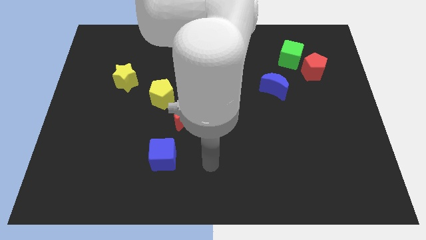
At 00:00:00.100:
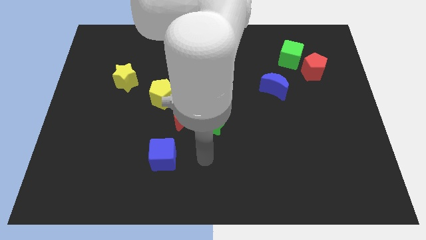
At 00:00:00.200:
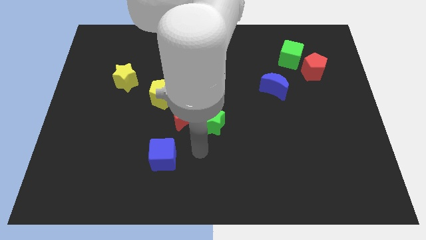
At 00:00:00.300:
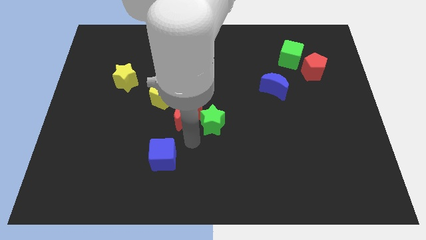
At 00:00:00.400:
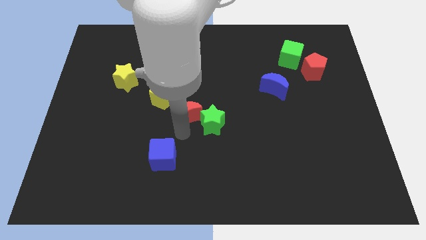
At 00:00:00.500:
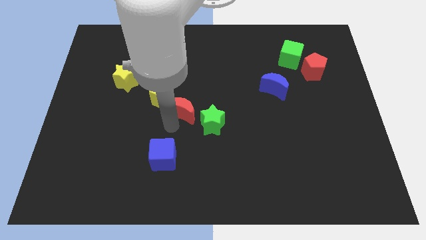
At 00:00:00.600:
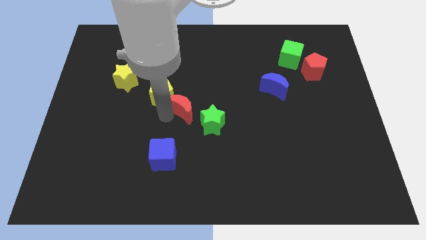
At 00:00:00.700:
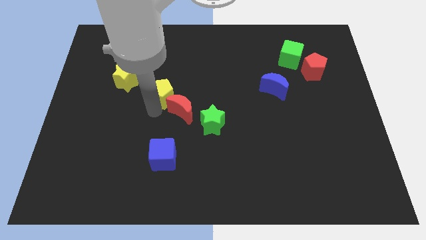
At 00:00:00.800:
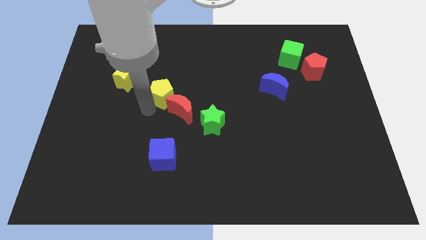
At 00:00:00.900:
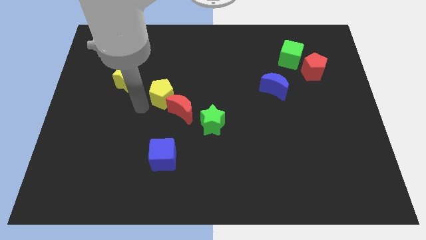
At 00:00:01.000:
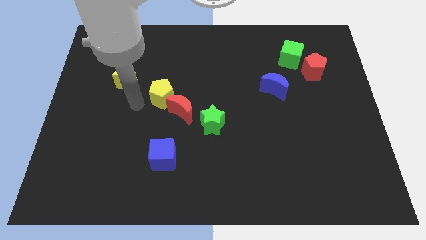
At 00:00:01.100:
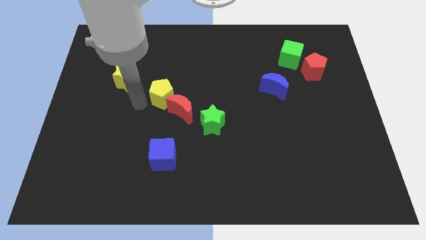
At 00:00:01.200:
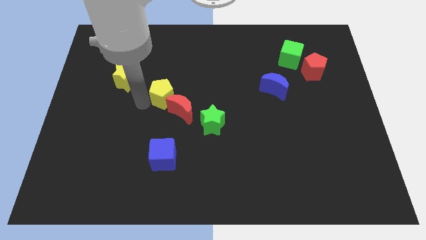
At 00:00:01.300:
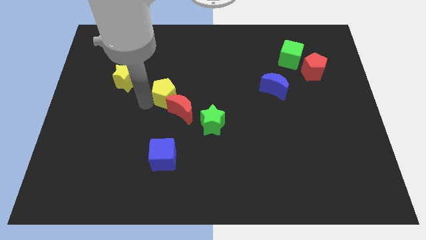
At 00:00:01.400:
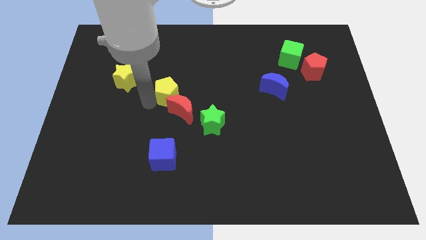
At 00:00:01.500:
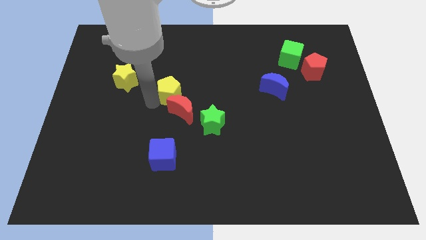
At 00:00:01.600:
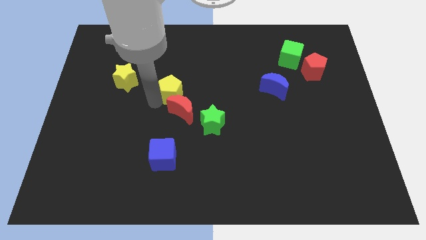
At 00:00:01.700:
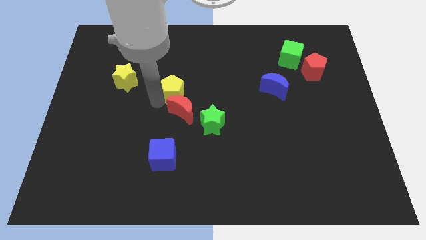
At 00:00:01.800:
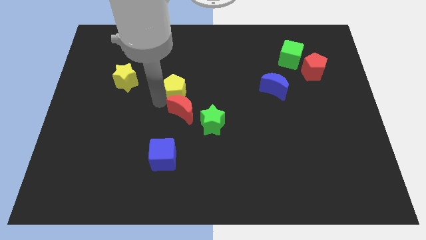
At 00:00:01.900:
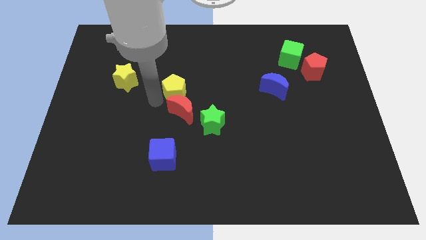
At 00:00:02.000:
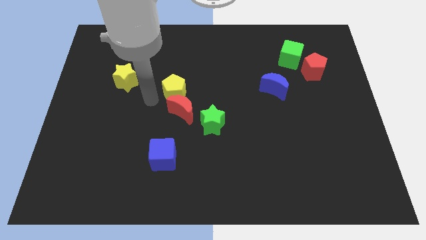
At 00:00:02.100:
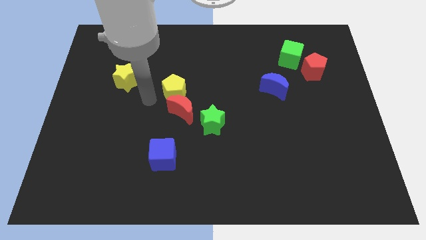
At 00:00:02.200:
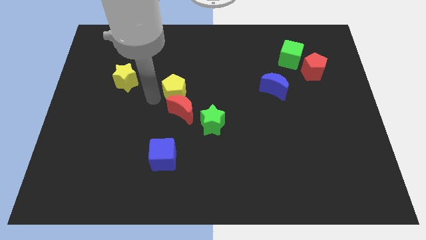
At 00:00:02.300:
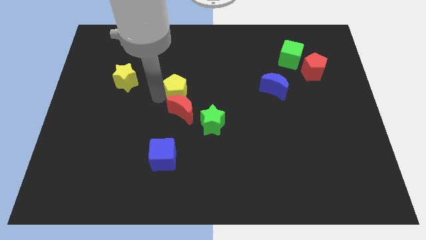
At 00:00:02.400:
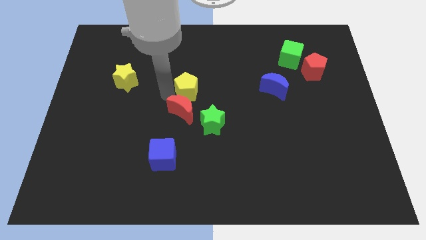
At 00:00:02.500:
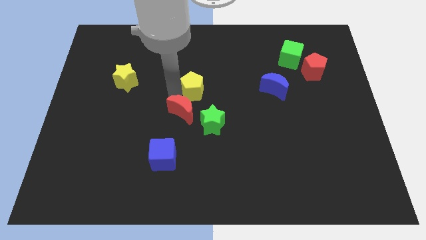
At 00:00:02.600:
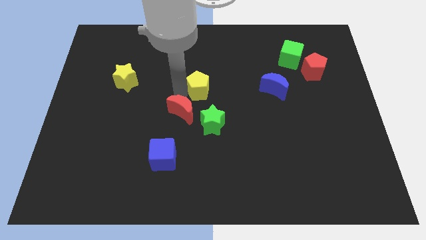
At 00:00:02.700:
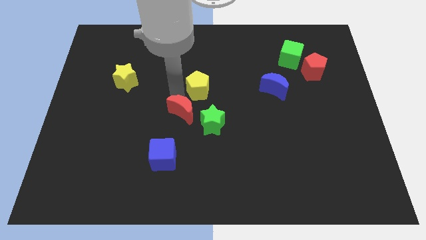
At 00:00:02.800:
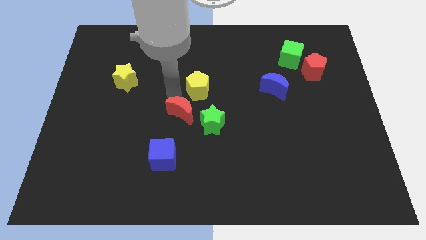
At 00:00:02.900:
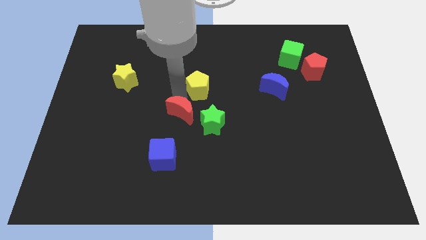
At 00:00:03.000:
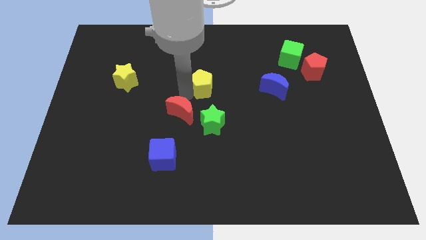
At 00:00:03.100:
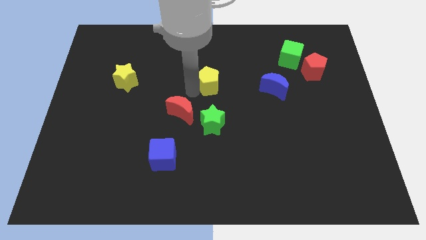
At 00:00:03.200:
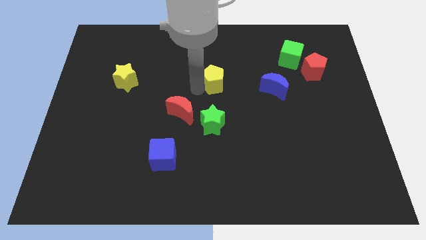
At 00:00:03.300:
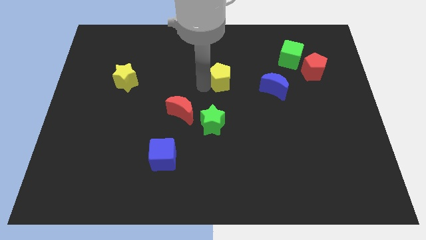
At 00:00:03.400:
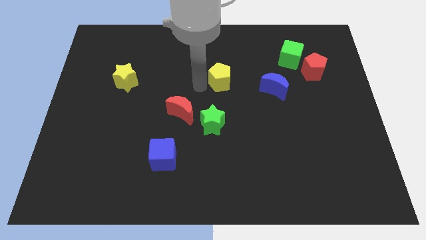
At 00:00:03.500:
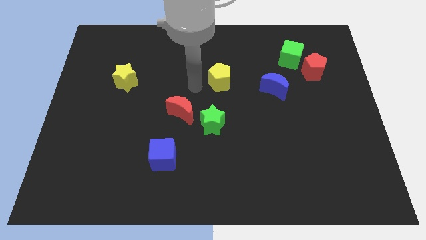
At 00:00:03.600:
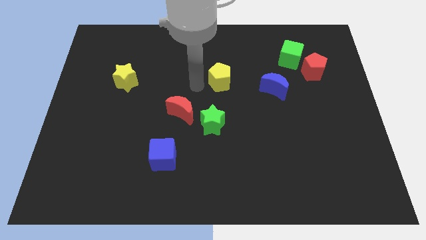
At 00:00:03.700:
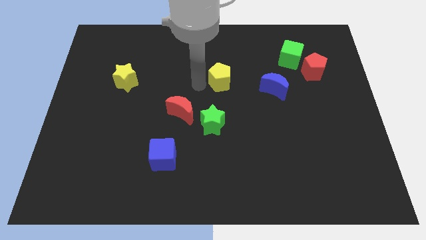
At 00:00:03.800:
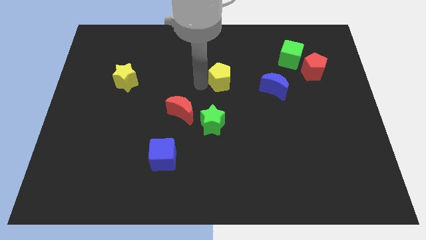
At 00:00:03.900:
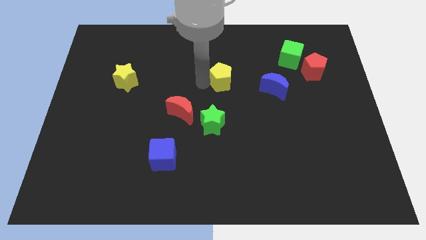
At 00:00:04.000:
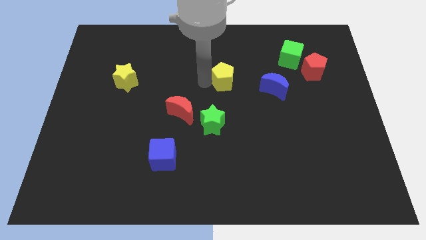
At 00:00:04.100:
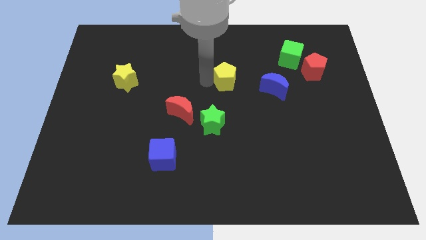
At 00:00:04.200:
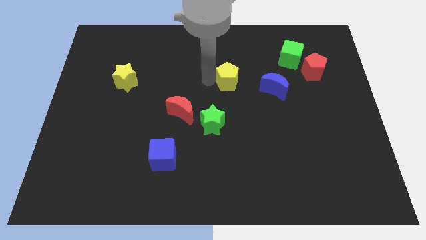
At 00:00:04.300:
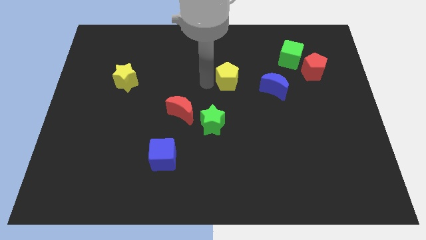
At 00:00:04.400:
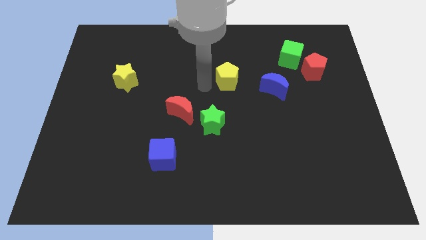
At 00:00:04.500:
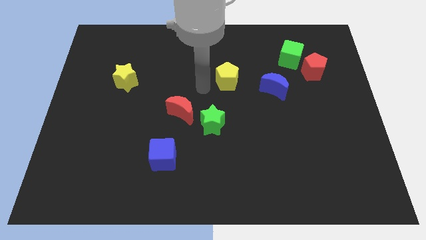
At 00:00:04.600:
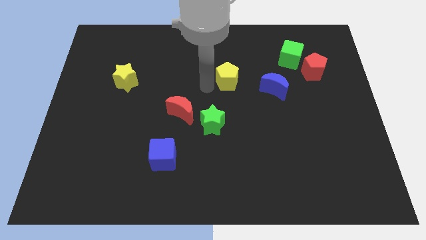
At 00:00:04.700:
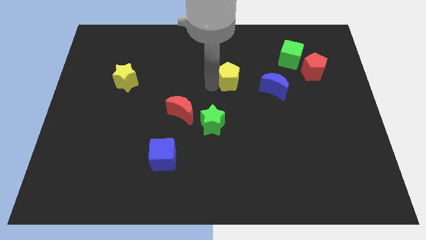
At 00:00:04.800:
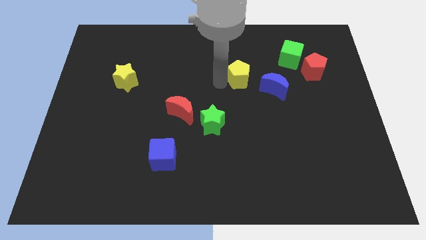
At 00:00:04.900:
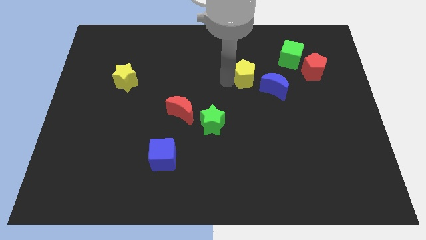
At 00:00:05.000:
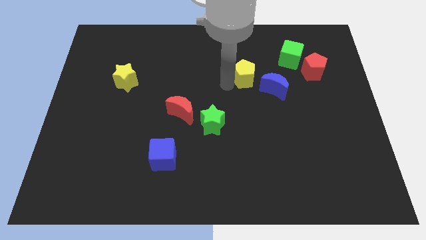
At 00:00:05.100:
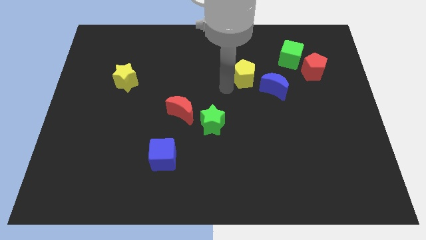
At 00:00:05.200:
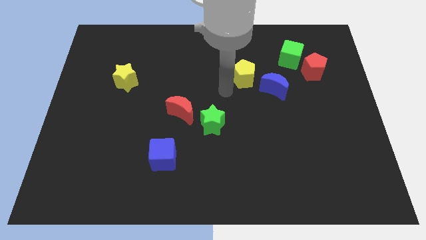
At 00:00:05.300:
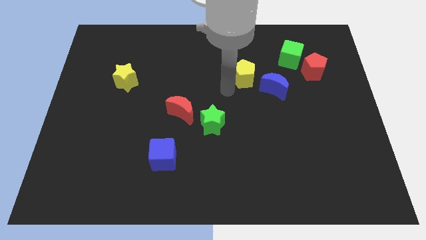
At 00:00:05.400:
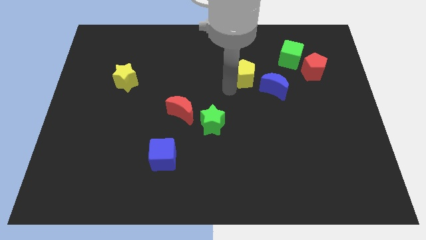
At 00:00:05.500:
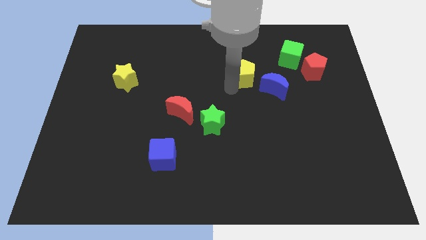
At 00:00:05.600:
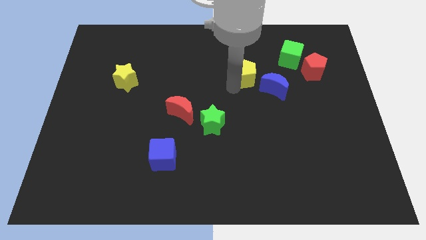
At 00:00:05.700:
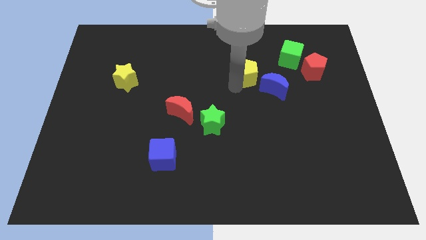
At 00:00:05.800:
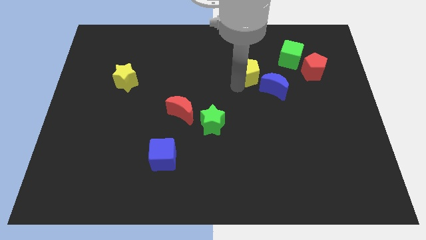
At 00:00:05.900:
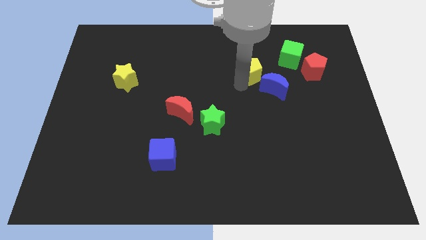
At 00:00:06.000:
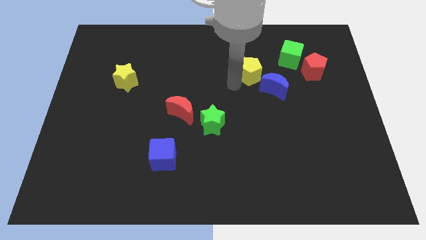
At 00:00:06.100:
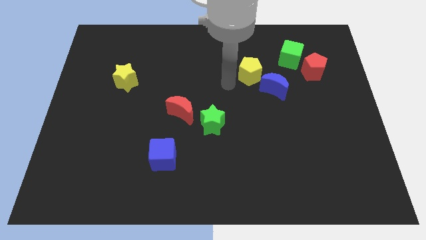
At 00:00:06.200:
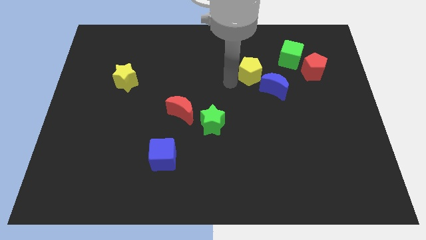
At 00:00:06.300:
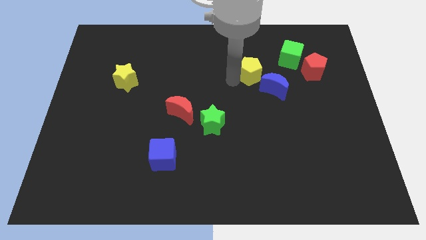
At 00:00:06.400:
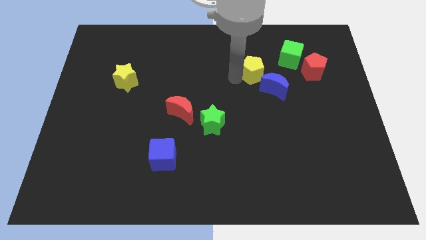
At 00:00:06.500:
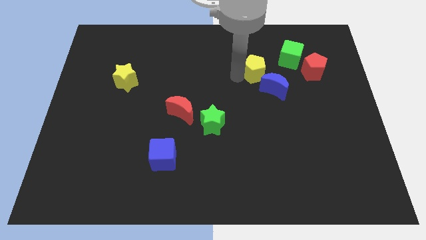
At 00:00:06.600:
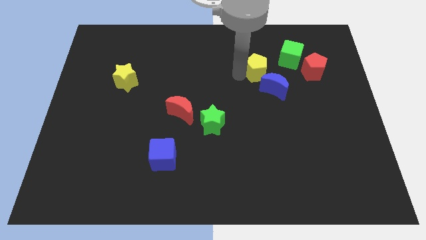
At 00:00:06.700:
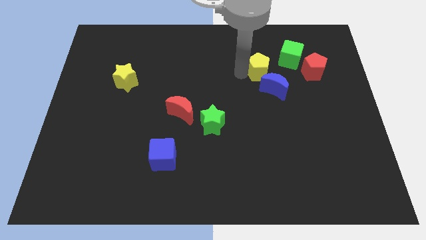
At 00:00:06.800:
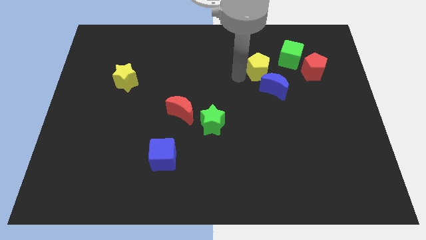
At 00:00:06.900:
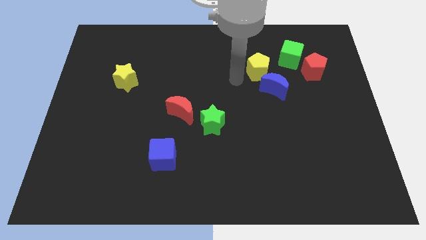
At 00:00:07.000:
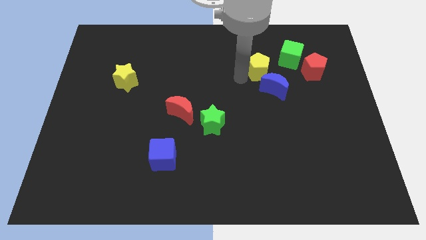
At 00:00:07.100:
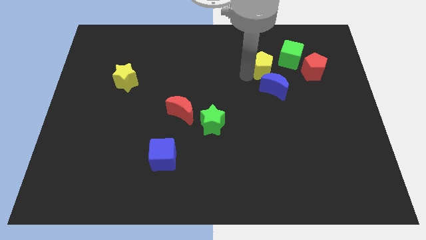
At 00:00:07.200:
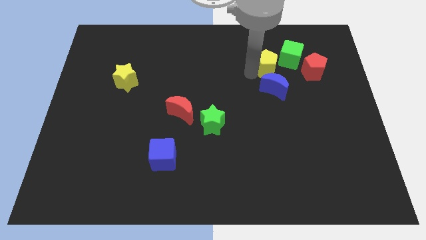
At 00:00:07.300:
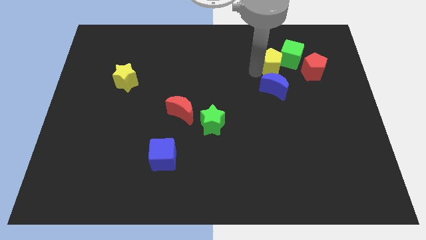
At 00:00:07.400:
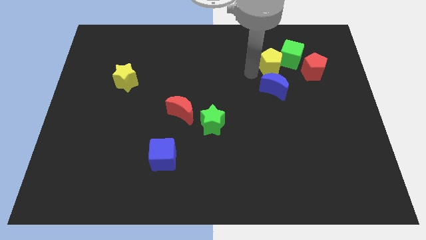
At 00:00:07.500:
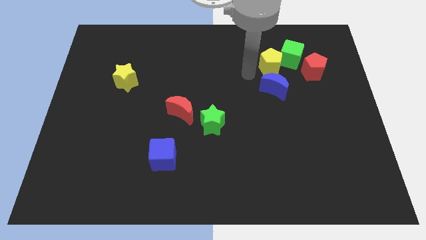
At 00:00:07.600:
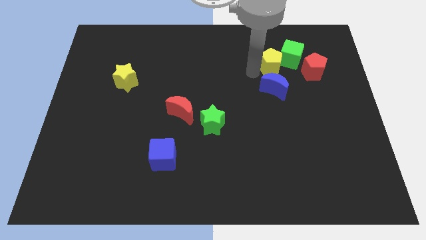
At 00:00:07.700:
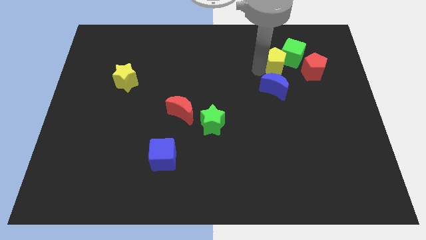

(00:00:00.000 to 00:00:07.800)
put the yellow pentagon to the green cube
